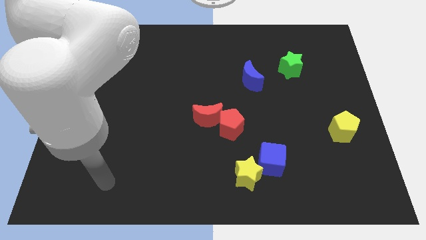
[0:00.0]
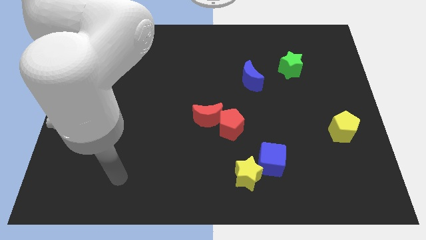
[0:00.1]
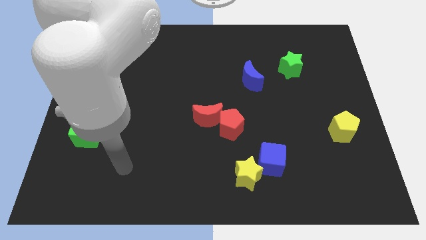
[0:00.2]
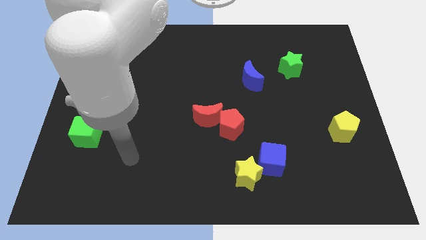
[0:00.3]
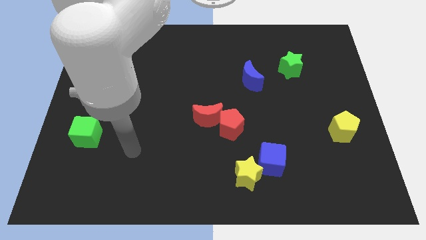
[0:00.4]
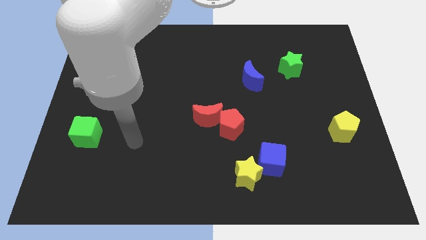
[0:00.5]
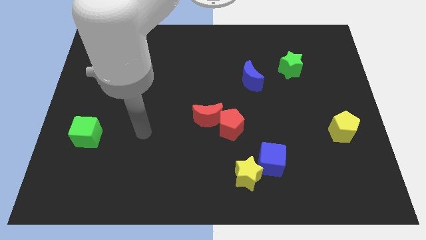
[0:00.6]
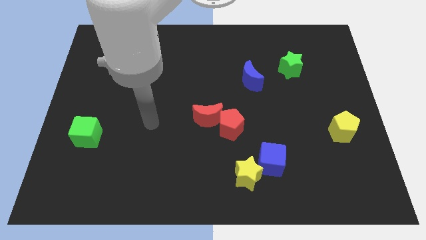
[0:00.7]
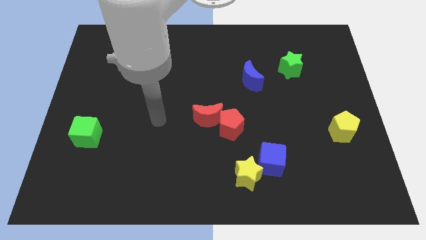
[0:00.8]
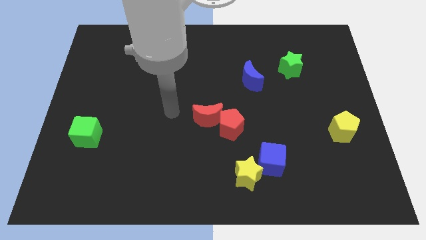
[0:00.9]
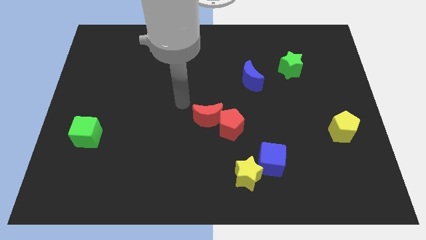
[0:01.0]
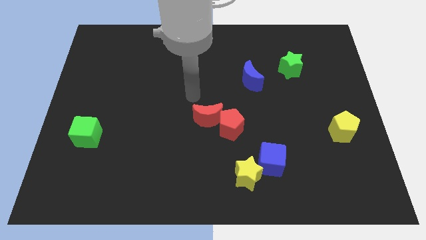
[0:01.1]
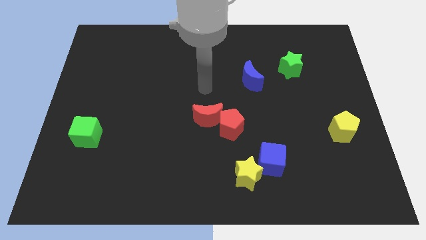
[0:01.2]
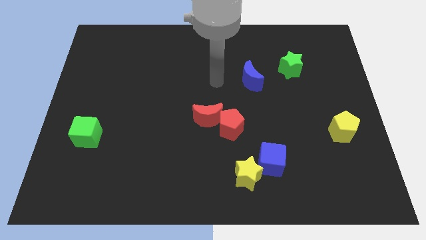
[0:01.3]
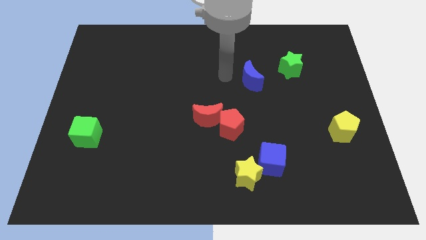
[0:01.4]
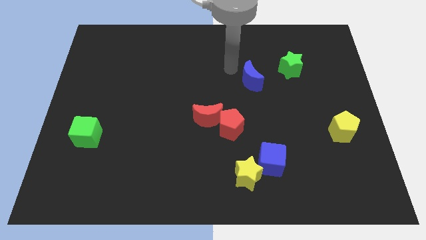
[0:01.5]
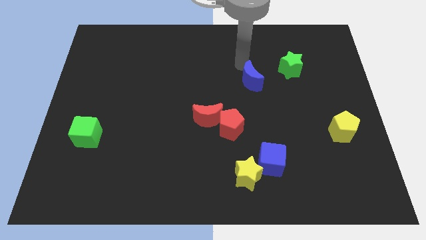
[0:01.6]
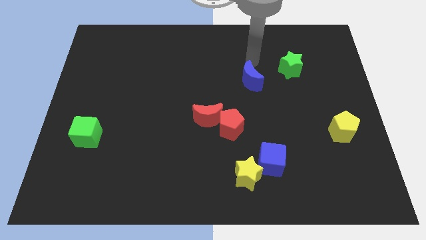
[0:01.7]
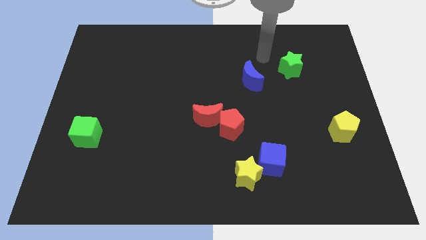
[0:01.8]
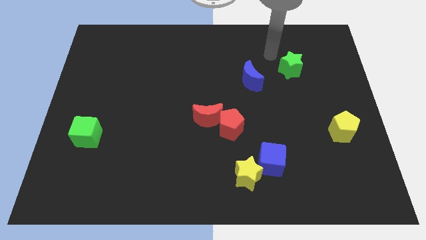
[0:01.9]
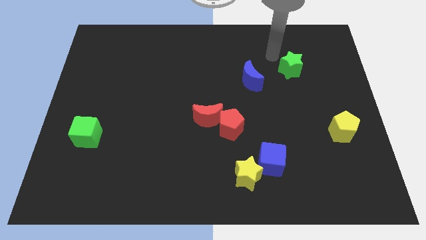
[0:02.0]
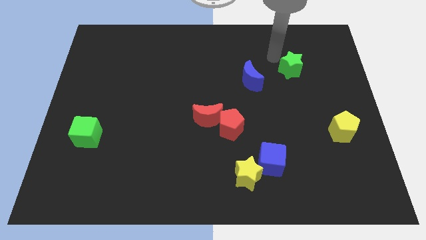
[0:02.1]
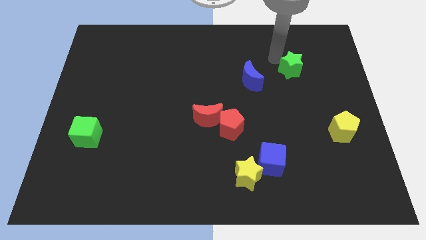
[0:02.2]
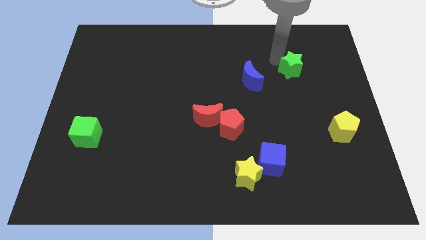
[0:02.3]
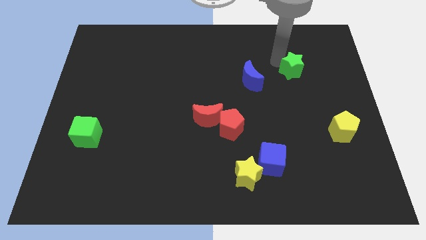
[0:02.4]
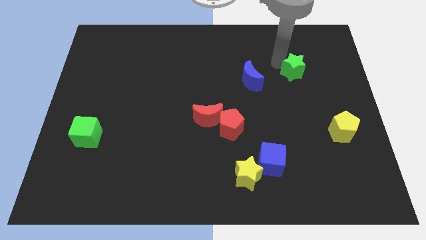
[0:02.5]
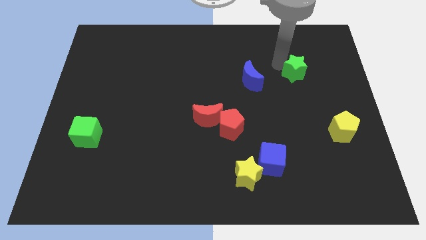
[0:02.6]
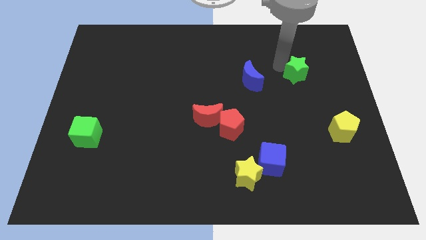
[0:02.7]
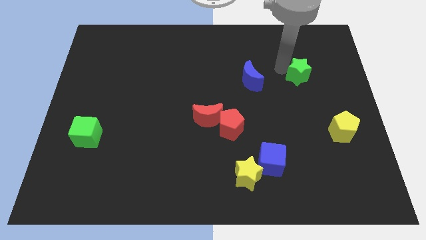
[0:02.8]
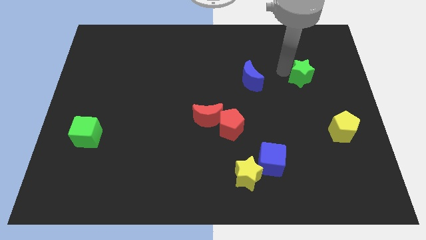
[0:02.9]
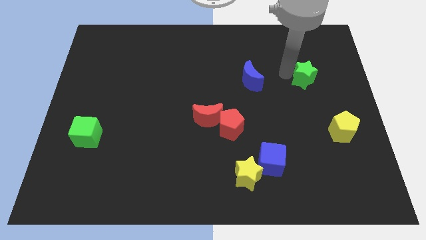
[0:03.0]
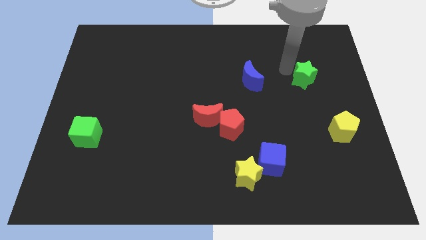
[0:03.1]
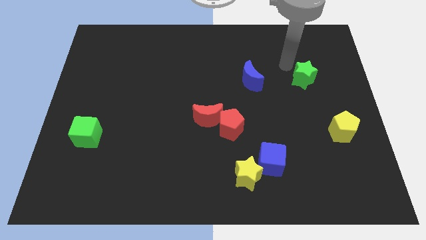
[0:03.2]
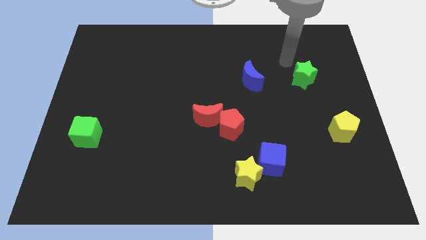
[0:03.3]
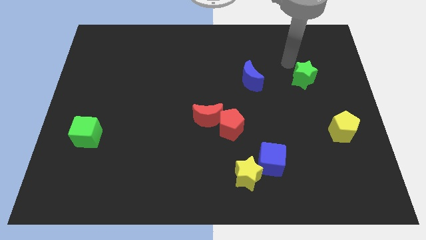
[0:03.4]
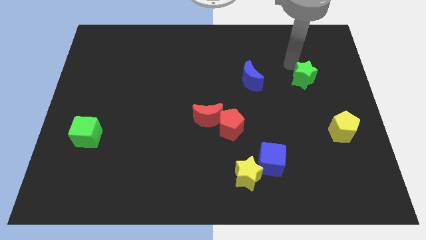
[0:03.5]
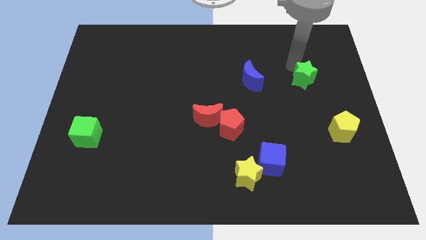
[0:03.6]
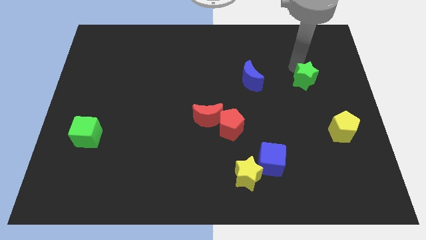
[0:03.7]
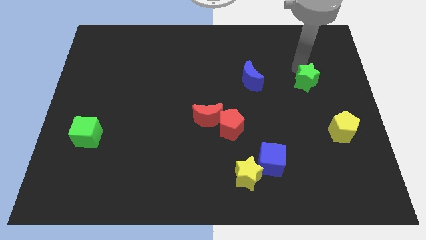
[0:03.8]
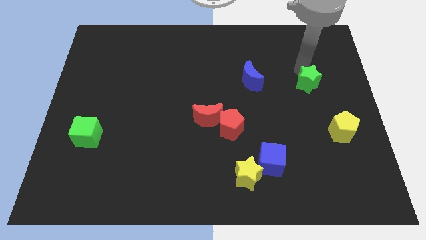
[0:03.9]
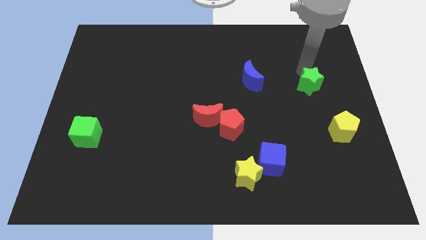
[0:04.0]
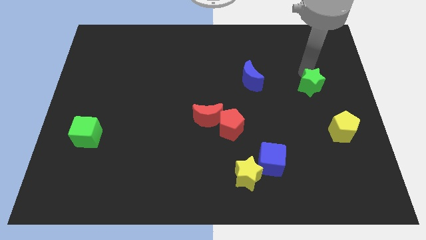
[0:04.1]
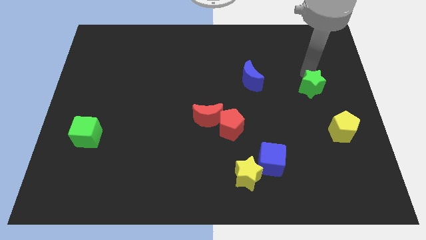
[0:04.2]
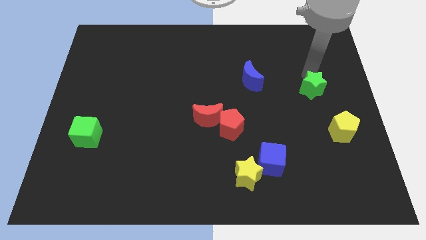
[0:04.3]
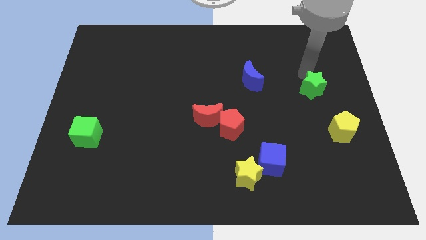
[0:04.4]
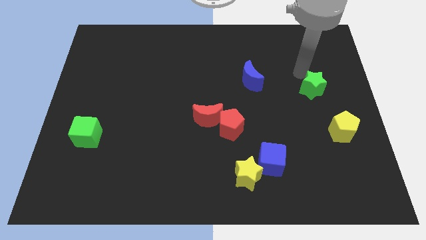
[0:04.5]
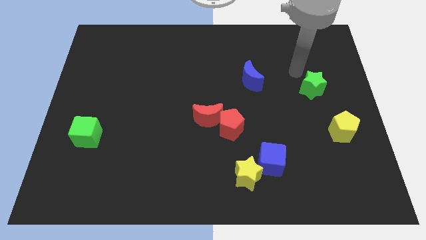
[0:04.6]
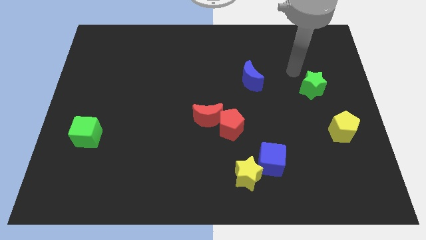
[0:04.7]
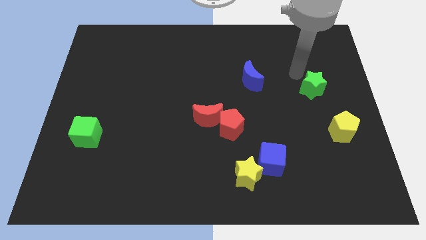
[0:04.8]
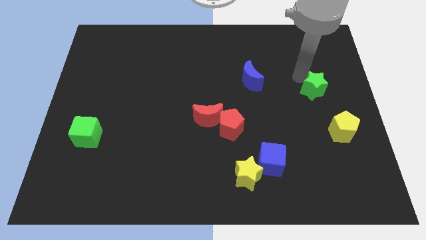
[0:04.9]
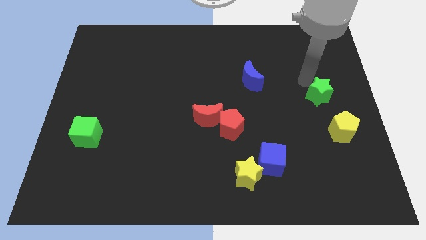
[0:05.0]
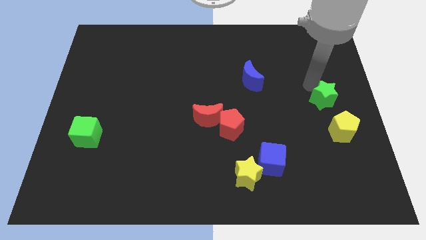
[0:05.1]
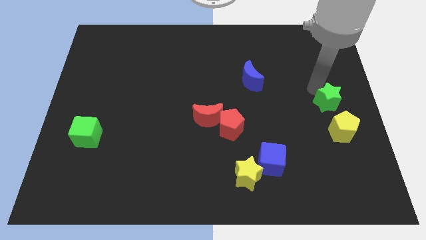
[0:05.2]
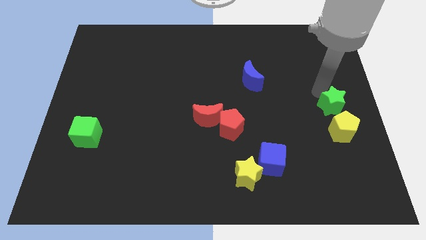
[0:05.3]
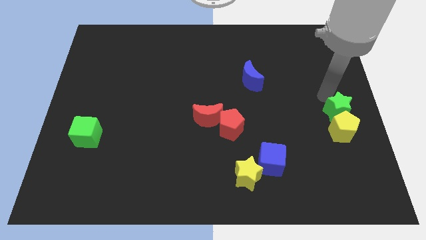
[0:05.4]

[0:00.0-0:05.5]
move the green star next to the yellow pentagon
